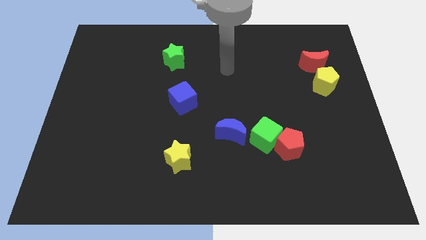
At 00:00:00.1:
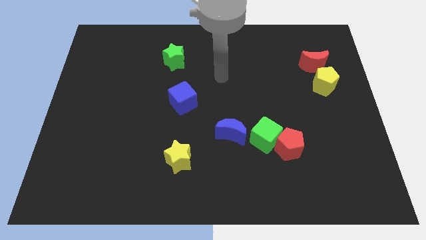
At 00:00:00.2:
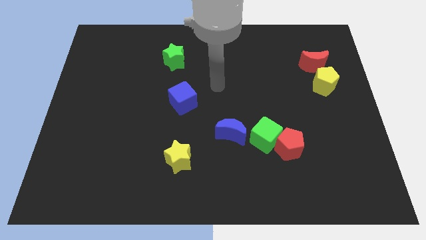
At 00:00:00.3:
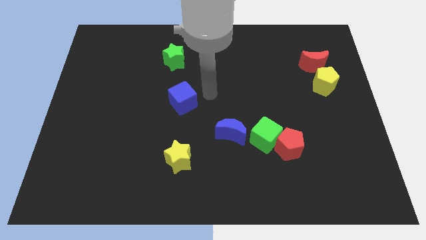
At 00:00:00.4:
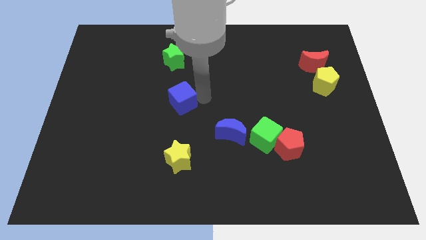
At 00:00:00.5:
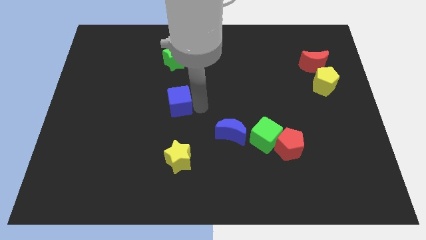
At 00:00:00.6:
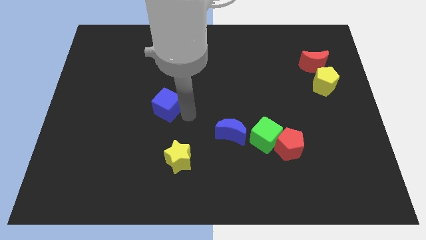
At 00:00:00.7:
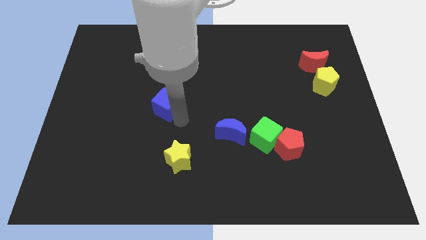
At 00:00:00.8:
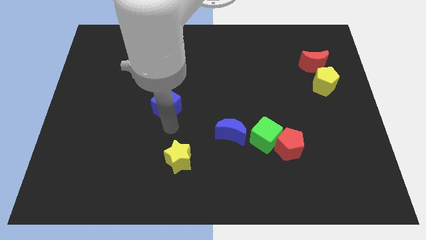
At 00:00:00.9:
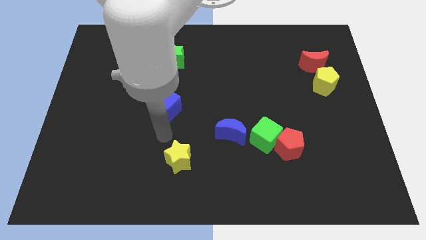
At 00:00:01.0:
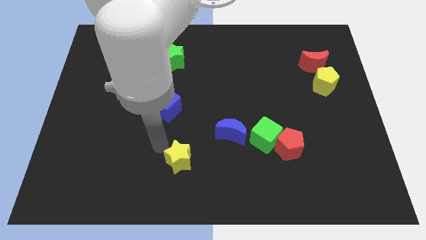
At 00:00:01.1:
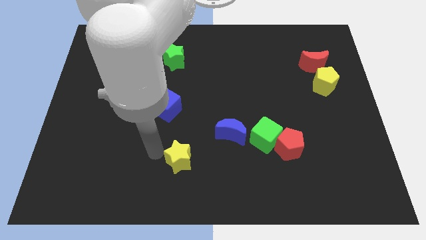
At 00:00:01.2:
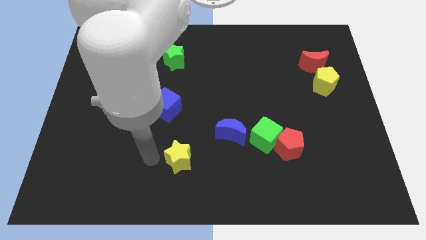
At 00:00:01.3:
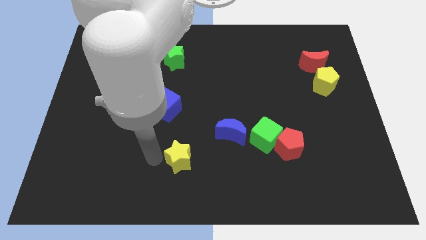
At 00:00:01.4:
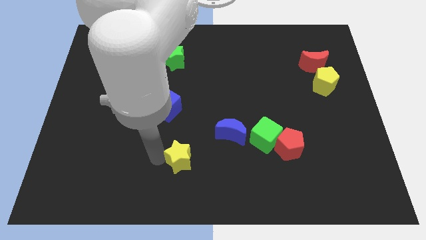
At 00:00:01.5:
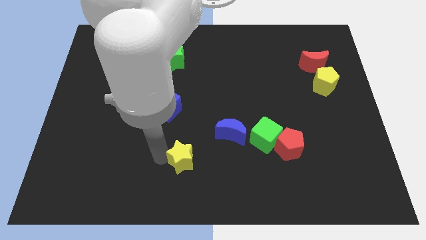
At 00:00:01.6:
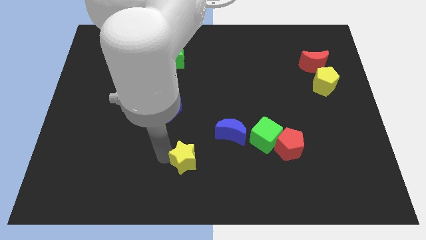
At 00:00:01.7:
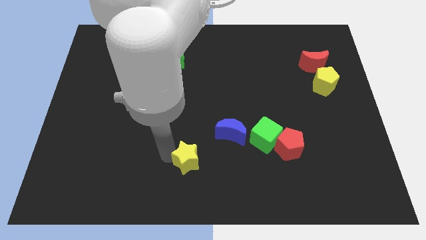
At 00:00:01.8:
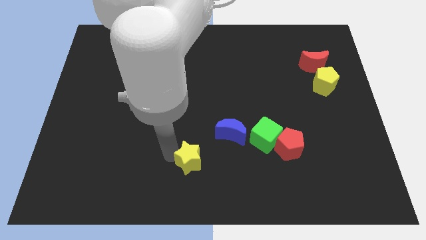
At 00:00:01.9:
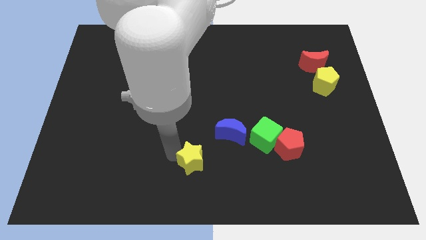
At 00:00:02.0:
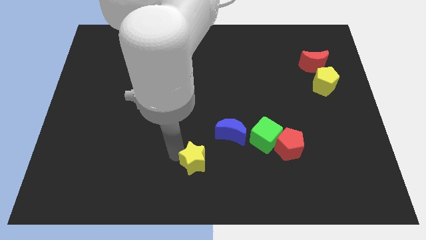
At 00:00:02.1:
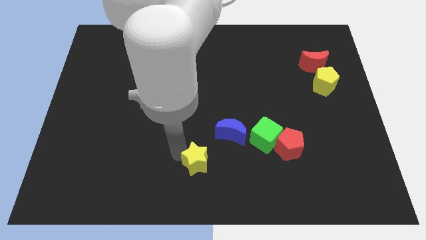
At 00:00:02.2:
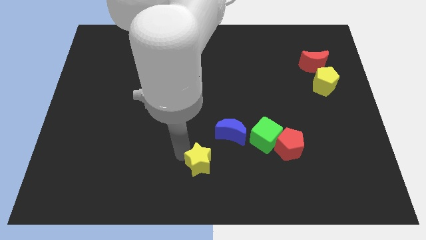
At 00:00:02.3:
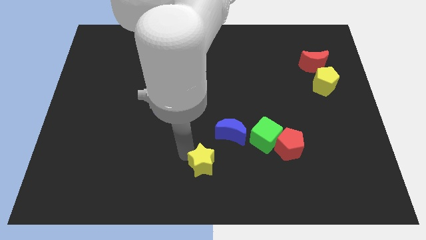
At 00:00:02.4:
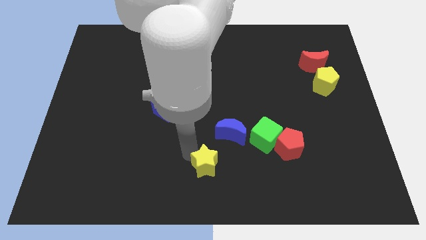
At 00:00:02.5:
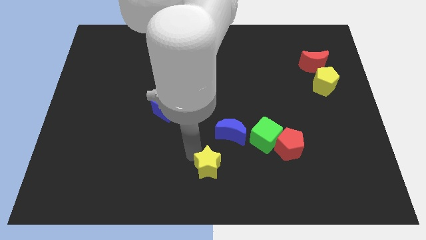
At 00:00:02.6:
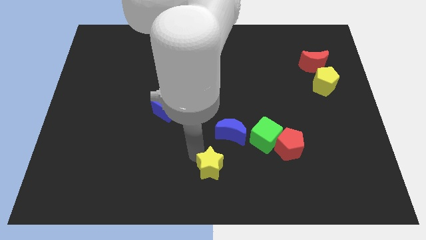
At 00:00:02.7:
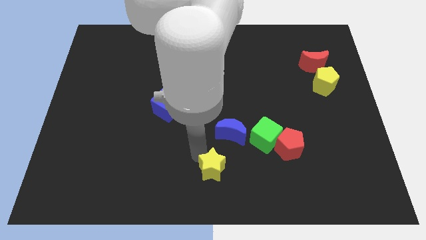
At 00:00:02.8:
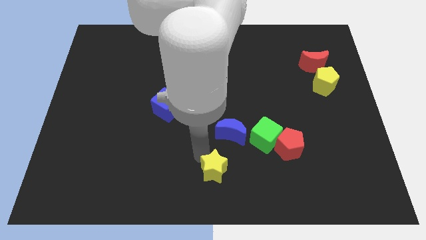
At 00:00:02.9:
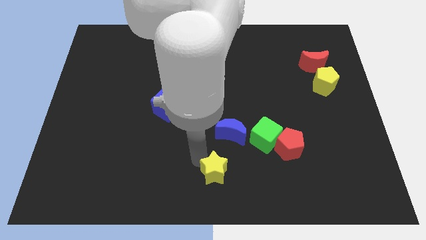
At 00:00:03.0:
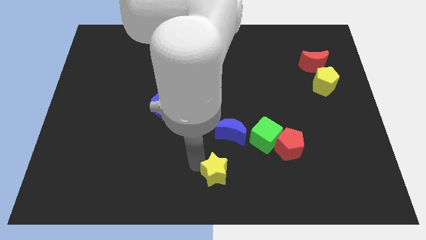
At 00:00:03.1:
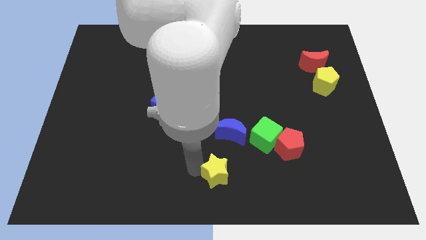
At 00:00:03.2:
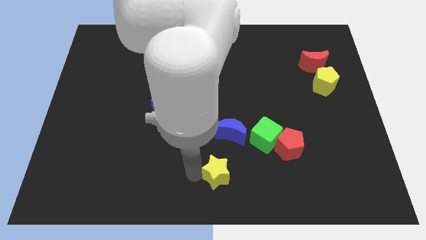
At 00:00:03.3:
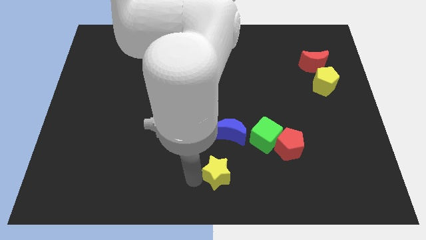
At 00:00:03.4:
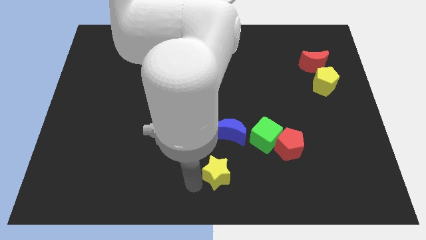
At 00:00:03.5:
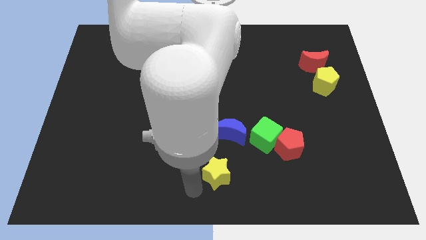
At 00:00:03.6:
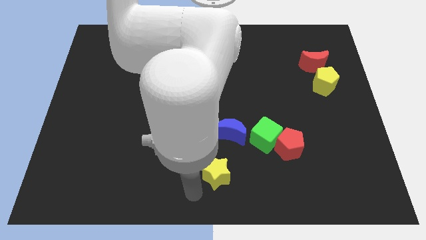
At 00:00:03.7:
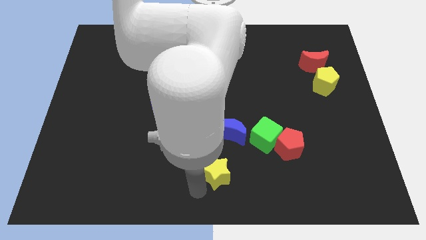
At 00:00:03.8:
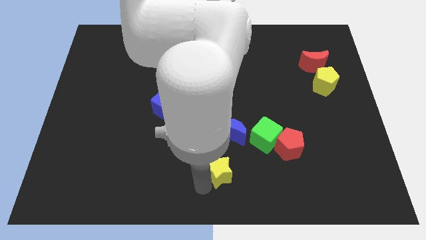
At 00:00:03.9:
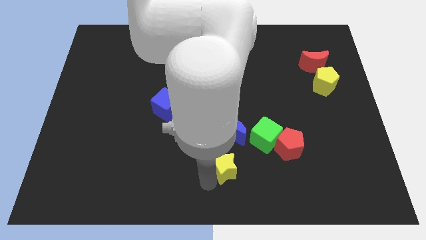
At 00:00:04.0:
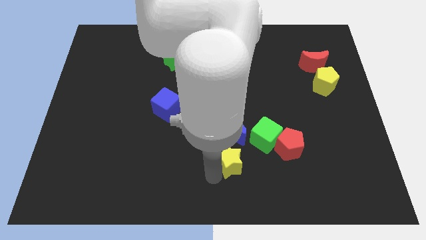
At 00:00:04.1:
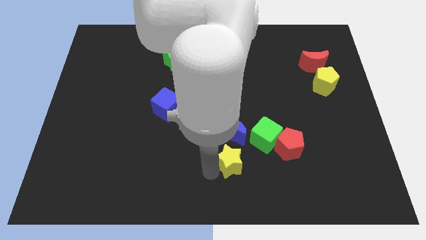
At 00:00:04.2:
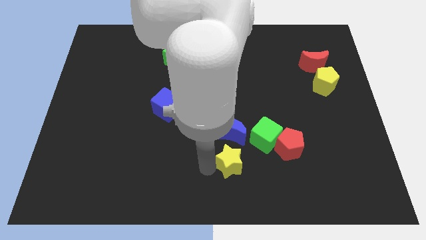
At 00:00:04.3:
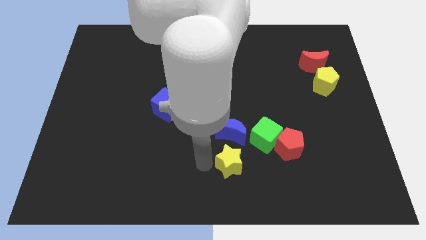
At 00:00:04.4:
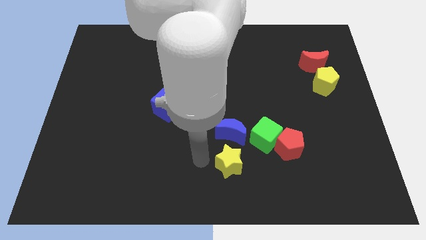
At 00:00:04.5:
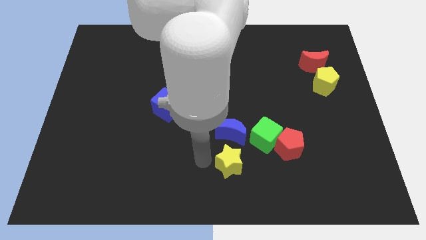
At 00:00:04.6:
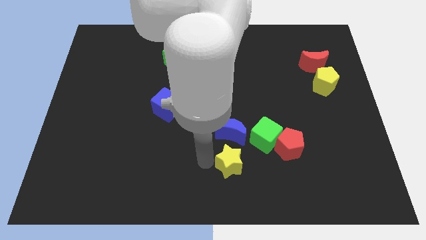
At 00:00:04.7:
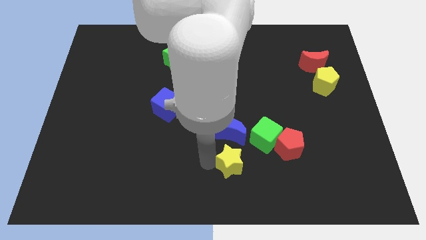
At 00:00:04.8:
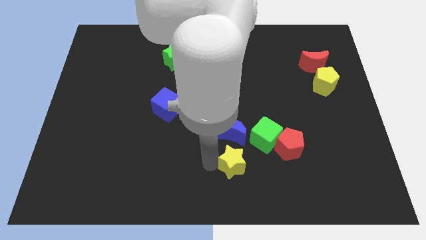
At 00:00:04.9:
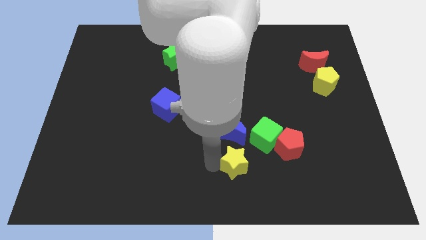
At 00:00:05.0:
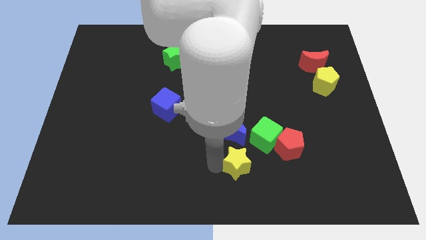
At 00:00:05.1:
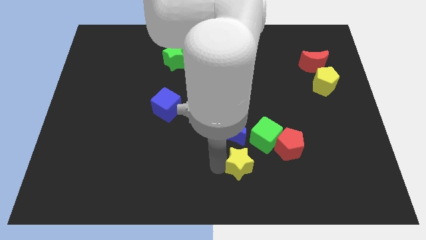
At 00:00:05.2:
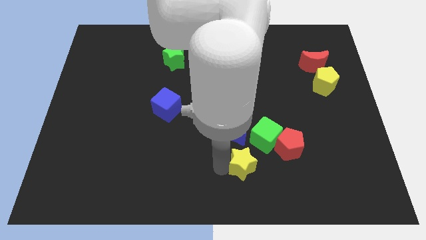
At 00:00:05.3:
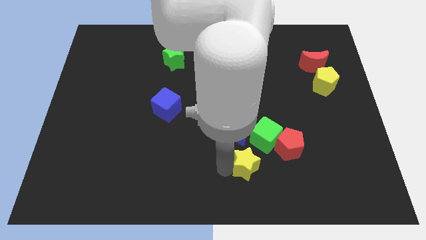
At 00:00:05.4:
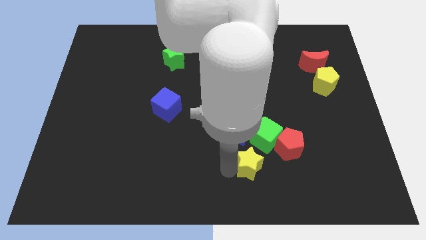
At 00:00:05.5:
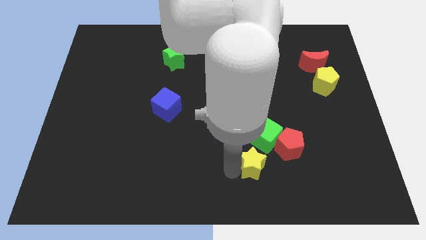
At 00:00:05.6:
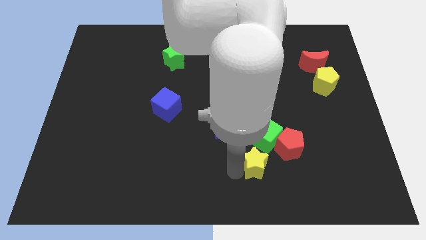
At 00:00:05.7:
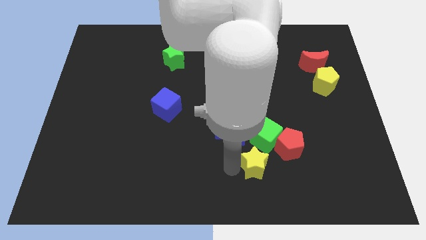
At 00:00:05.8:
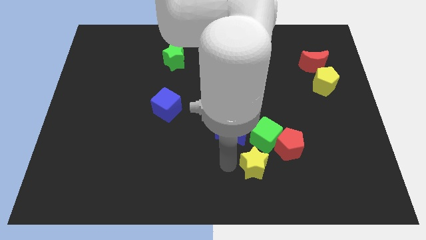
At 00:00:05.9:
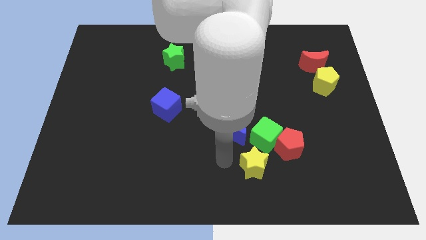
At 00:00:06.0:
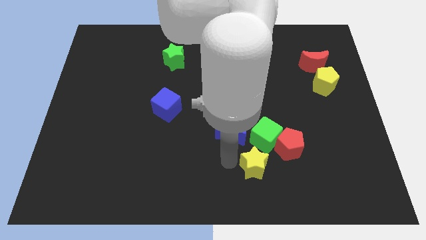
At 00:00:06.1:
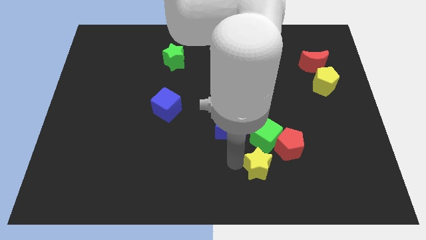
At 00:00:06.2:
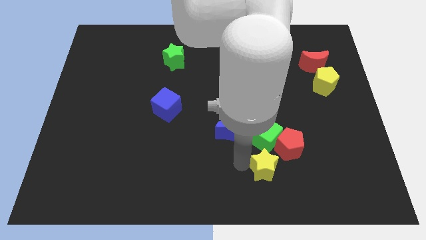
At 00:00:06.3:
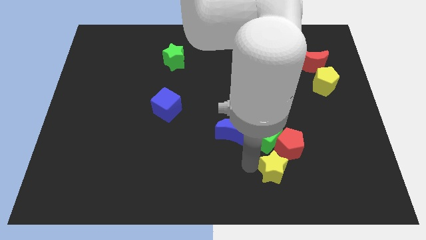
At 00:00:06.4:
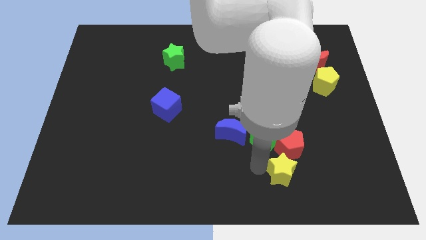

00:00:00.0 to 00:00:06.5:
slide the yellow star to the right

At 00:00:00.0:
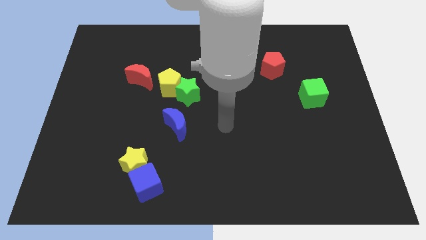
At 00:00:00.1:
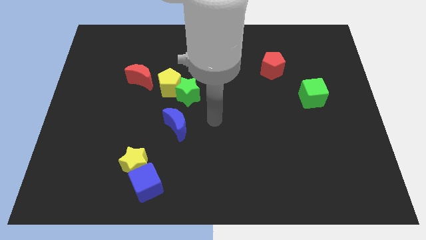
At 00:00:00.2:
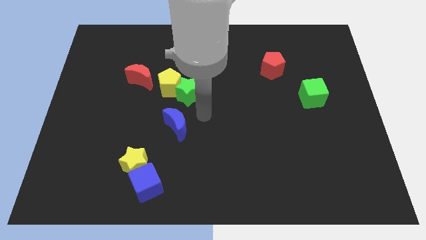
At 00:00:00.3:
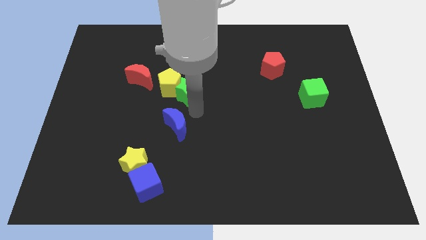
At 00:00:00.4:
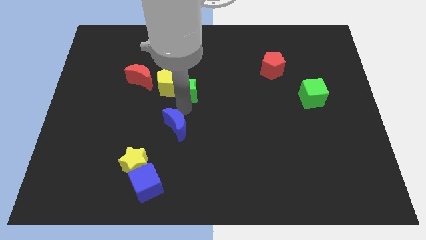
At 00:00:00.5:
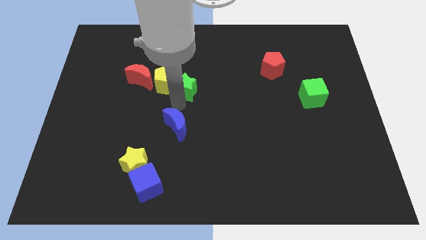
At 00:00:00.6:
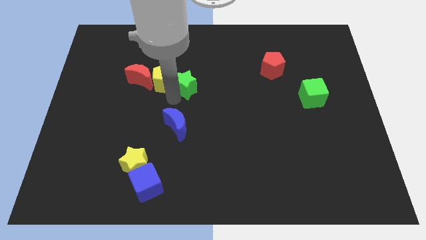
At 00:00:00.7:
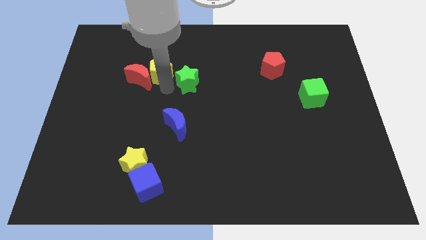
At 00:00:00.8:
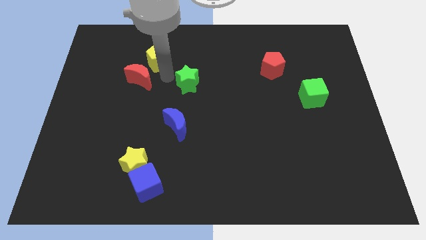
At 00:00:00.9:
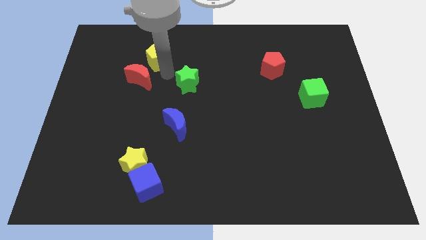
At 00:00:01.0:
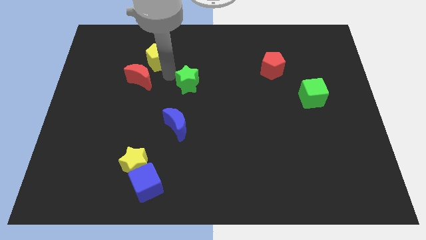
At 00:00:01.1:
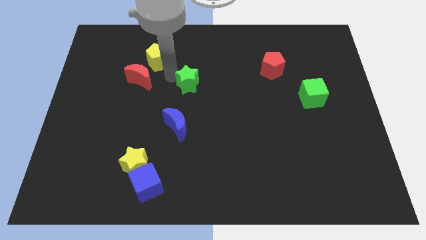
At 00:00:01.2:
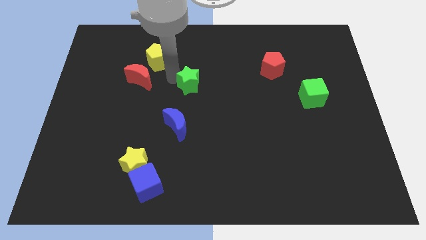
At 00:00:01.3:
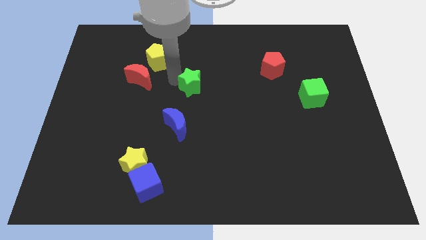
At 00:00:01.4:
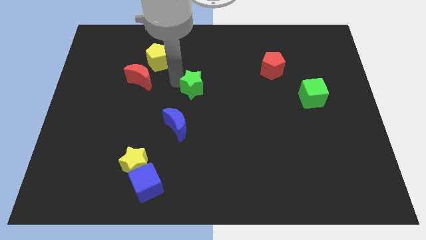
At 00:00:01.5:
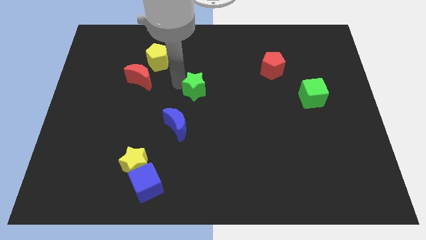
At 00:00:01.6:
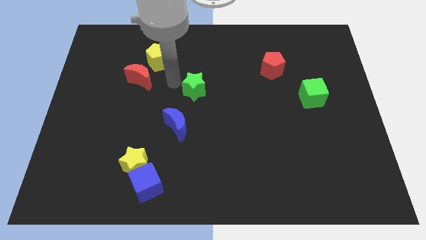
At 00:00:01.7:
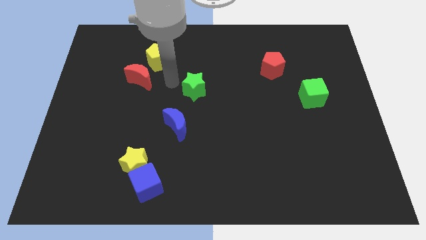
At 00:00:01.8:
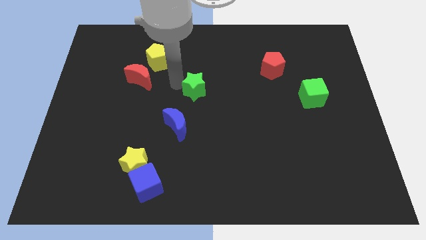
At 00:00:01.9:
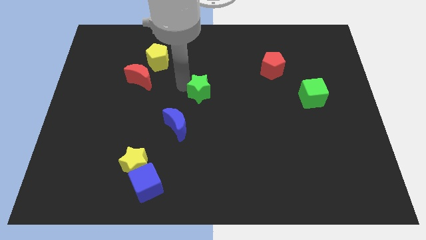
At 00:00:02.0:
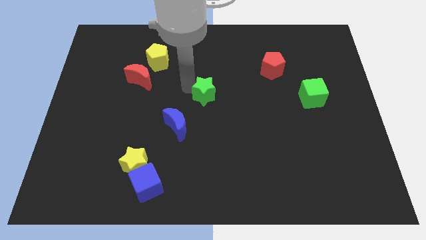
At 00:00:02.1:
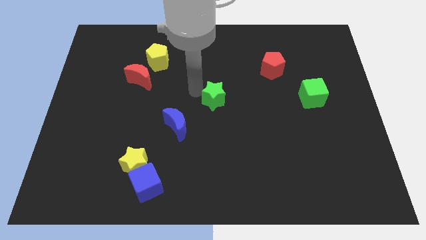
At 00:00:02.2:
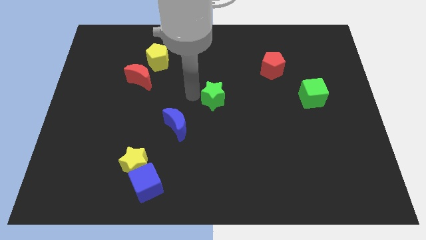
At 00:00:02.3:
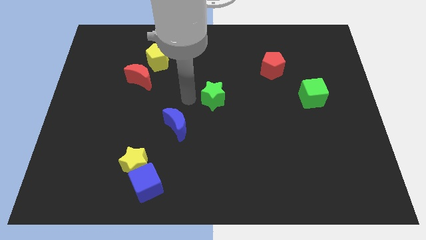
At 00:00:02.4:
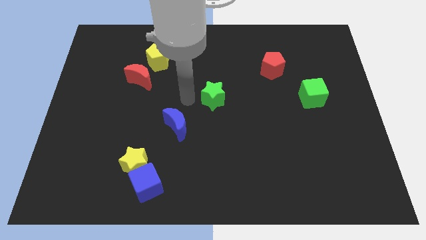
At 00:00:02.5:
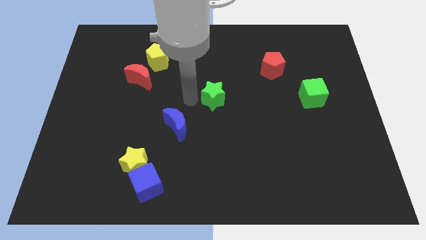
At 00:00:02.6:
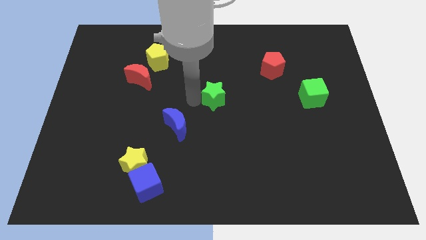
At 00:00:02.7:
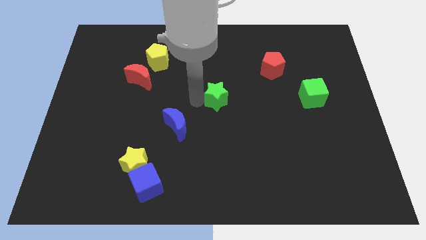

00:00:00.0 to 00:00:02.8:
push the green star somewhat right
